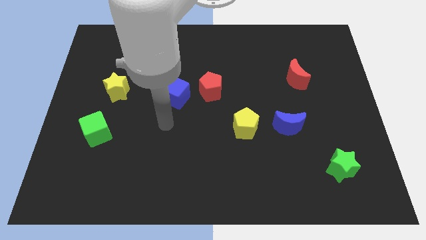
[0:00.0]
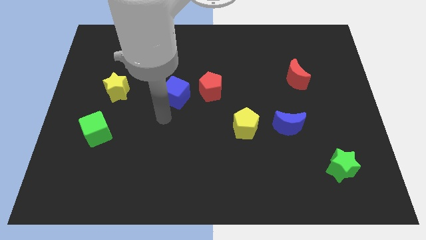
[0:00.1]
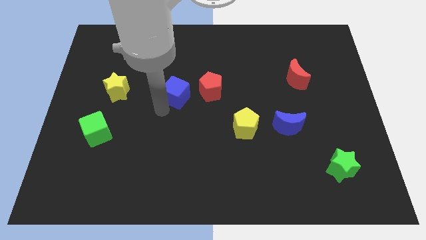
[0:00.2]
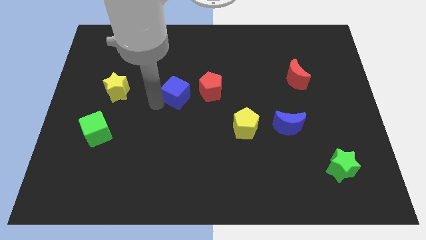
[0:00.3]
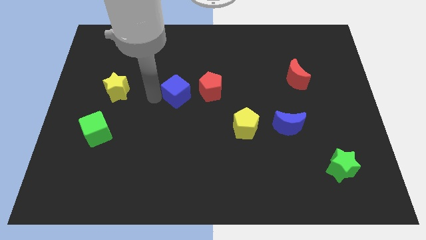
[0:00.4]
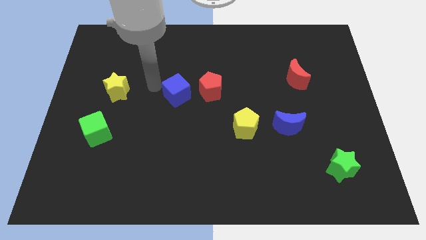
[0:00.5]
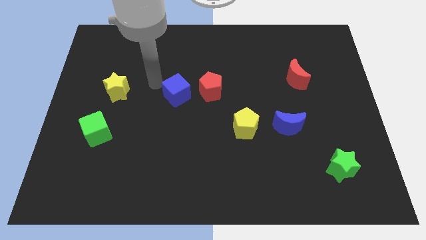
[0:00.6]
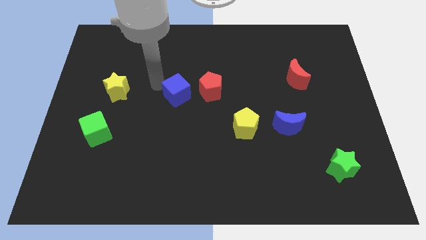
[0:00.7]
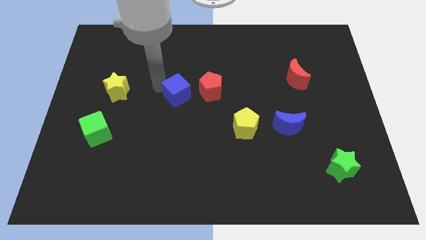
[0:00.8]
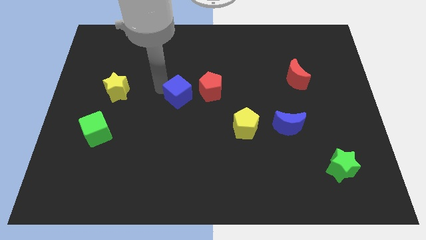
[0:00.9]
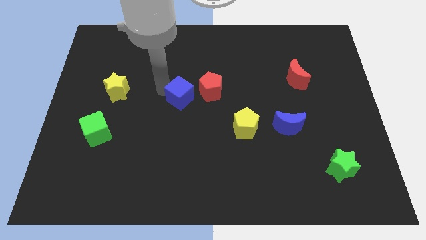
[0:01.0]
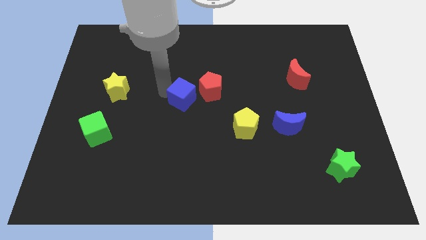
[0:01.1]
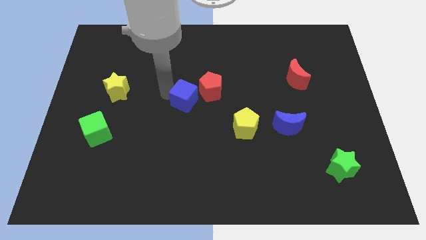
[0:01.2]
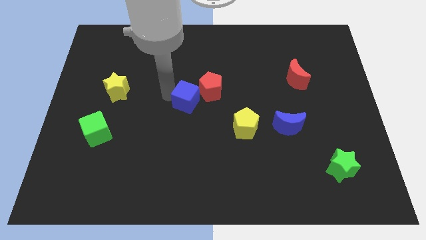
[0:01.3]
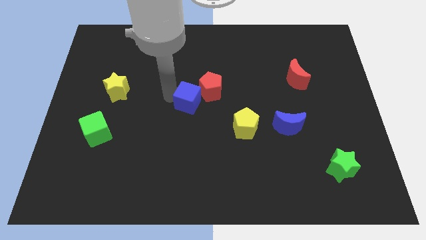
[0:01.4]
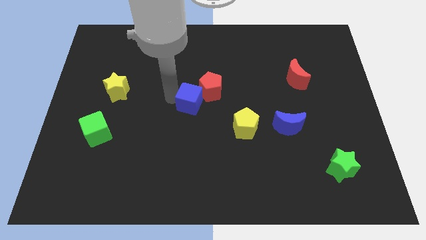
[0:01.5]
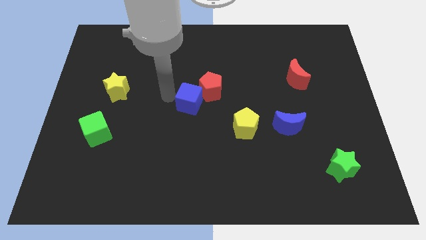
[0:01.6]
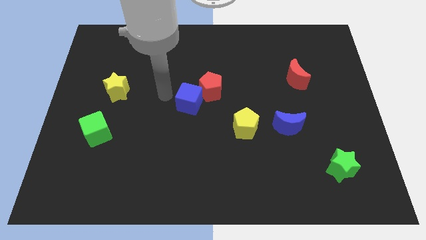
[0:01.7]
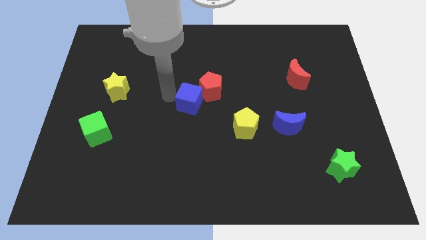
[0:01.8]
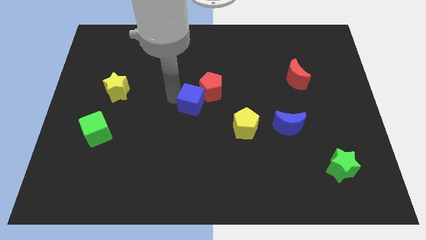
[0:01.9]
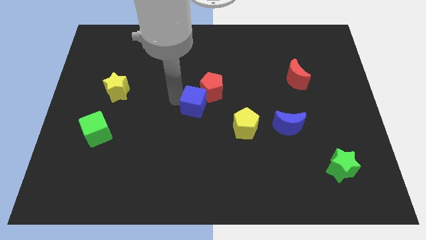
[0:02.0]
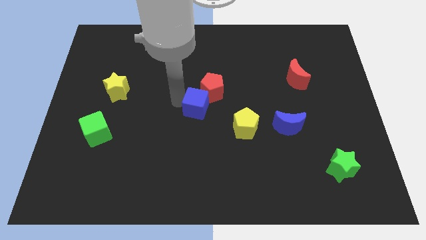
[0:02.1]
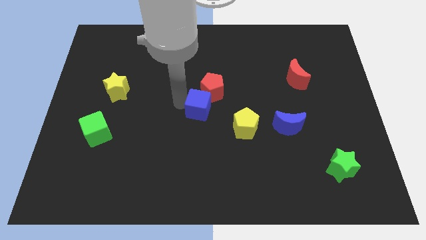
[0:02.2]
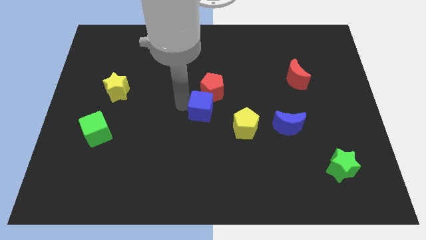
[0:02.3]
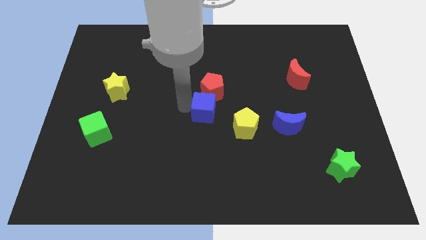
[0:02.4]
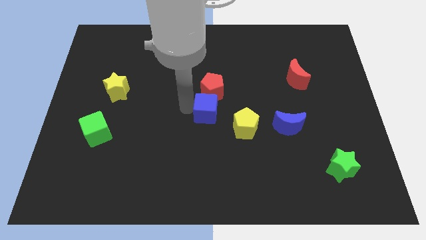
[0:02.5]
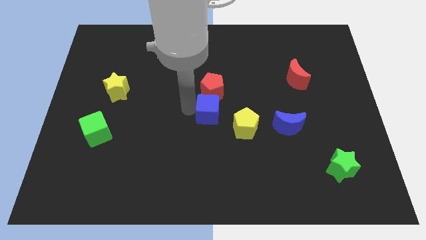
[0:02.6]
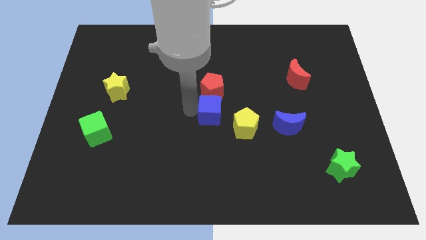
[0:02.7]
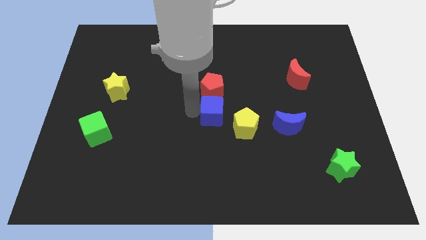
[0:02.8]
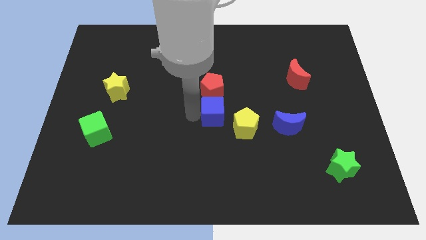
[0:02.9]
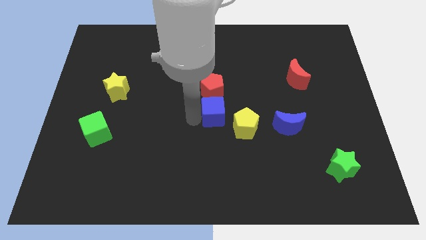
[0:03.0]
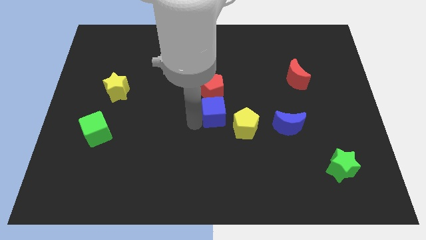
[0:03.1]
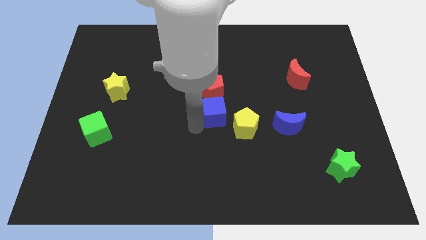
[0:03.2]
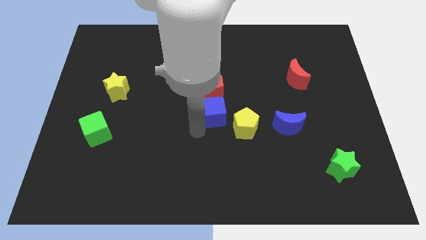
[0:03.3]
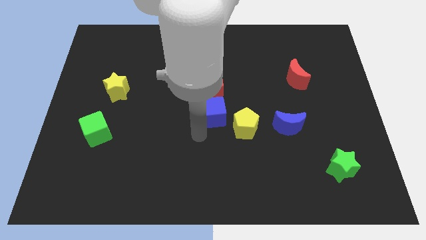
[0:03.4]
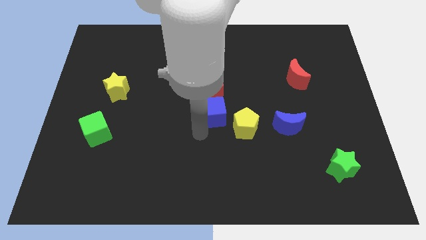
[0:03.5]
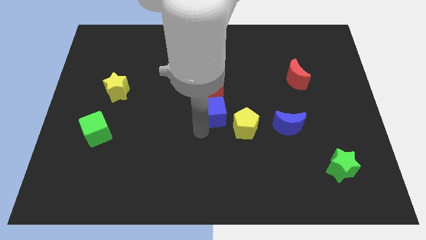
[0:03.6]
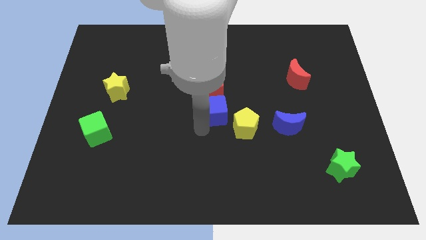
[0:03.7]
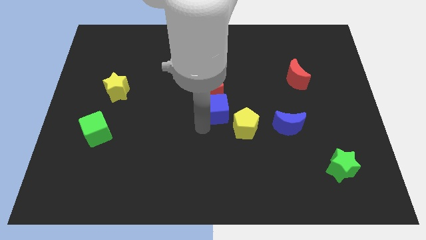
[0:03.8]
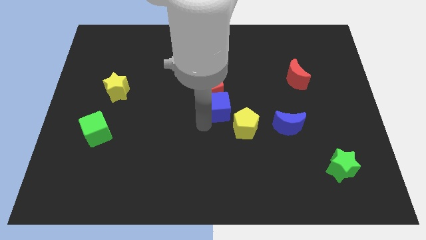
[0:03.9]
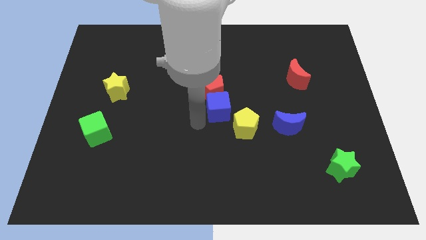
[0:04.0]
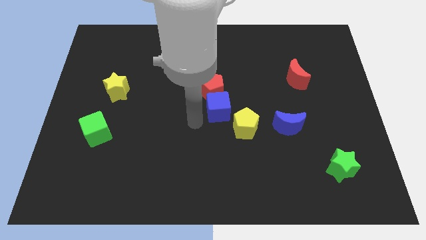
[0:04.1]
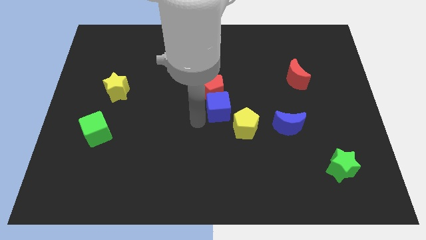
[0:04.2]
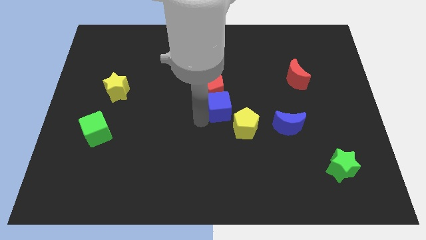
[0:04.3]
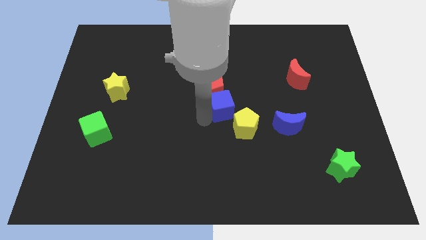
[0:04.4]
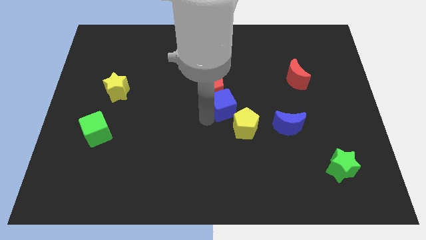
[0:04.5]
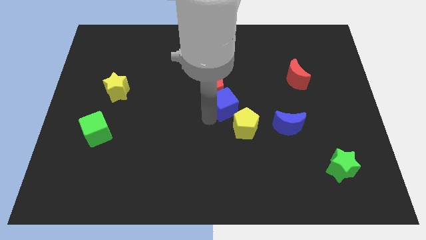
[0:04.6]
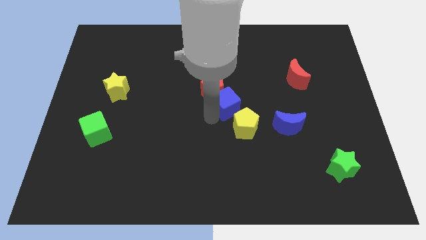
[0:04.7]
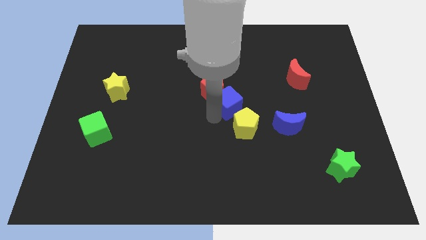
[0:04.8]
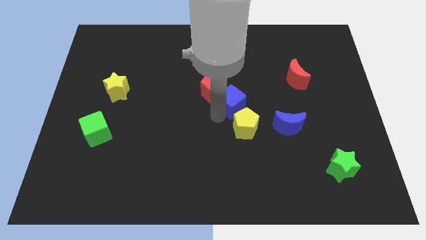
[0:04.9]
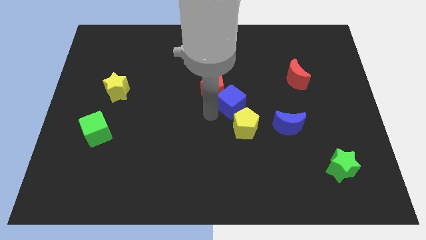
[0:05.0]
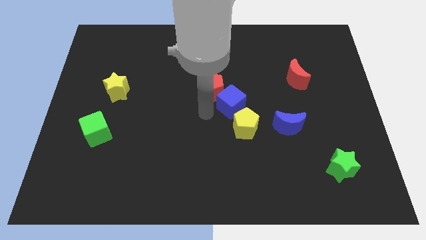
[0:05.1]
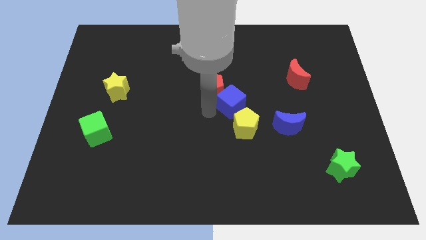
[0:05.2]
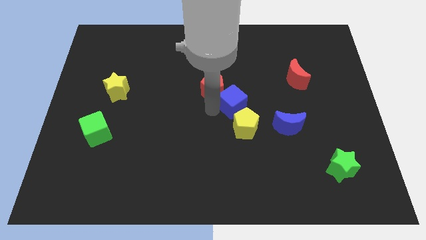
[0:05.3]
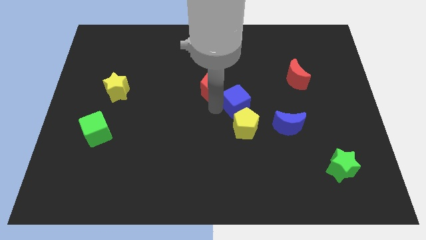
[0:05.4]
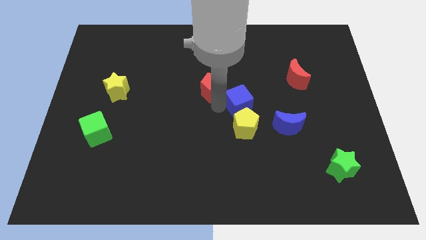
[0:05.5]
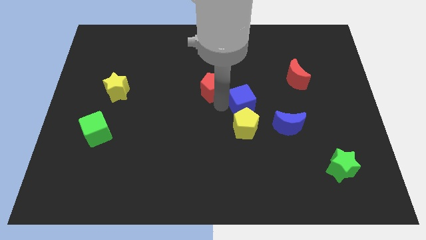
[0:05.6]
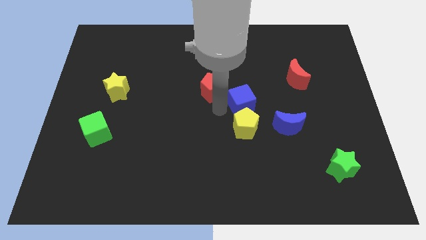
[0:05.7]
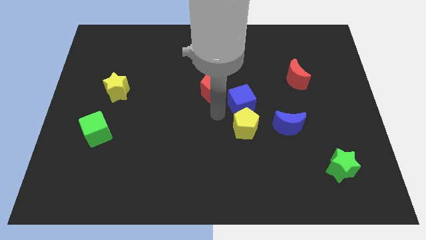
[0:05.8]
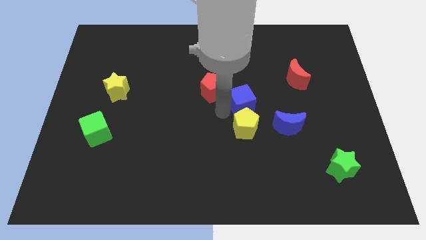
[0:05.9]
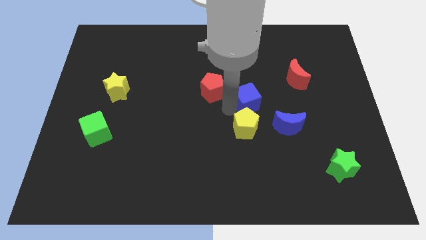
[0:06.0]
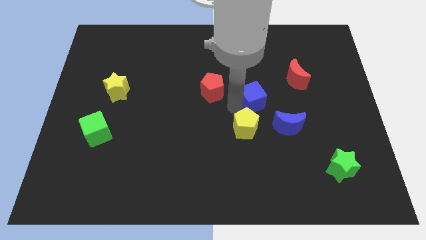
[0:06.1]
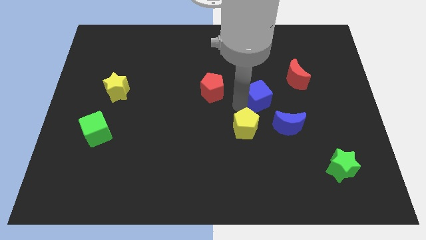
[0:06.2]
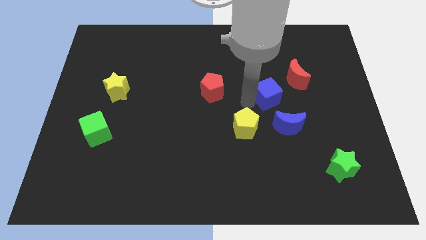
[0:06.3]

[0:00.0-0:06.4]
push the blue cube to the right

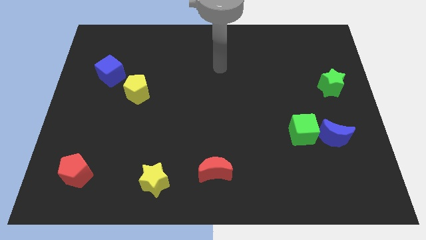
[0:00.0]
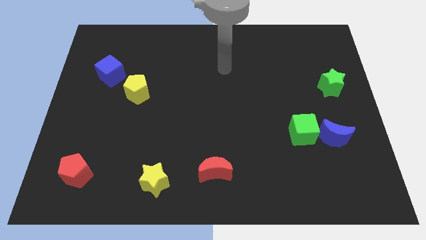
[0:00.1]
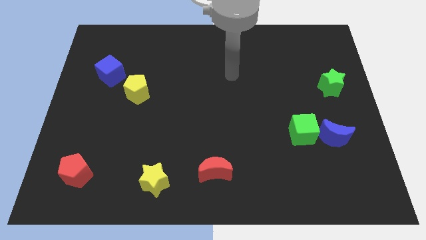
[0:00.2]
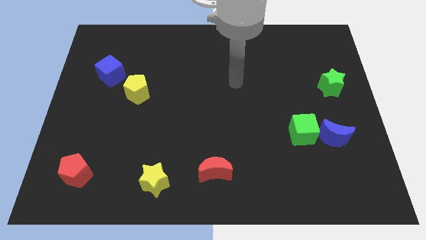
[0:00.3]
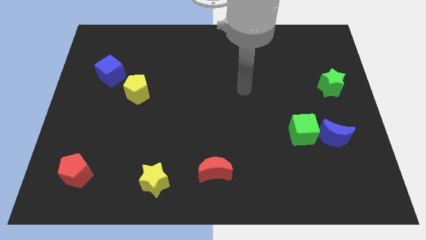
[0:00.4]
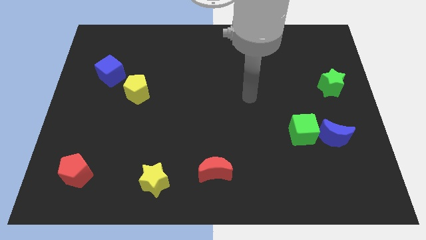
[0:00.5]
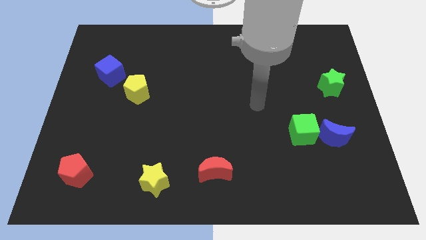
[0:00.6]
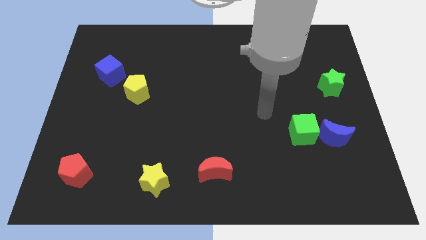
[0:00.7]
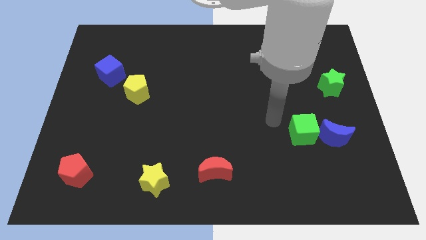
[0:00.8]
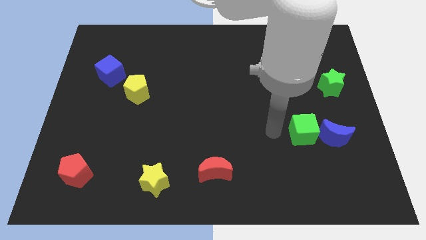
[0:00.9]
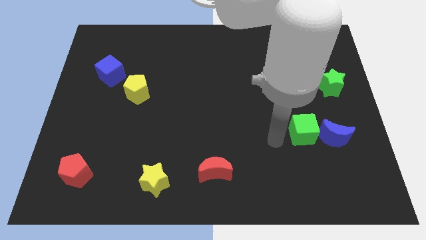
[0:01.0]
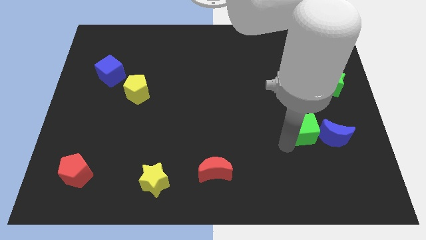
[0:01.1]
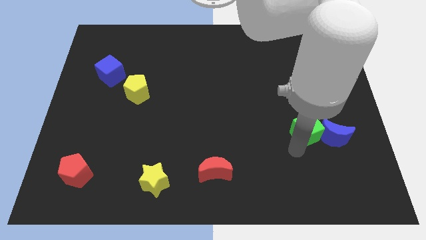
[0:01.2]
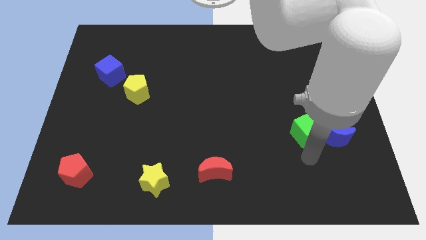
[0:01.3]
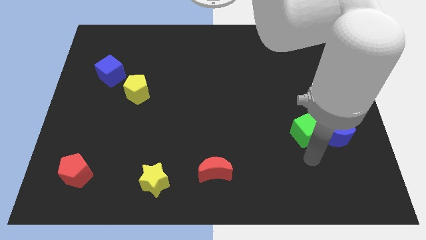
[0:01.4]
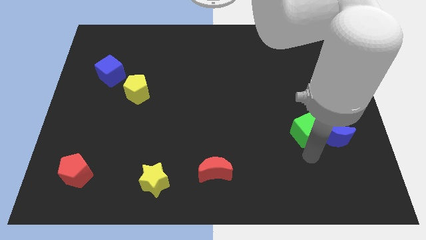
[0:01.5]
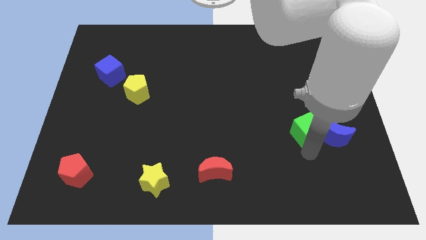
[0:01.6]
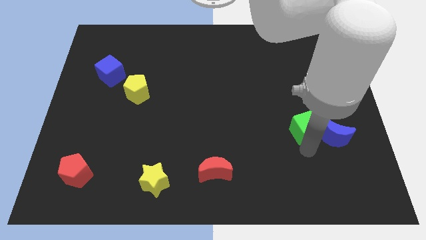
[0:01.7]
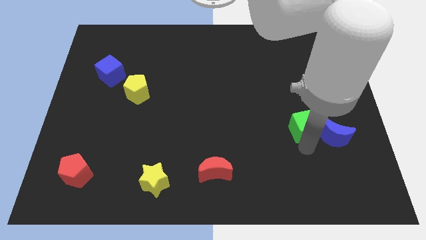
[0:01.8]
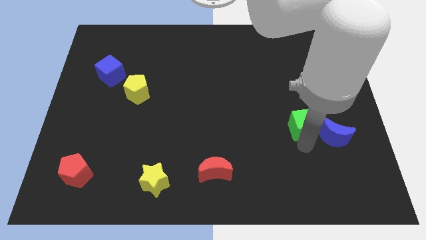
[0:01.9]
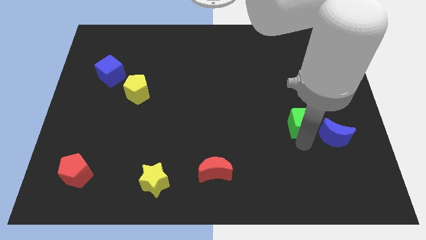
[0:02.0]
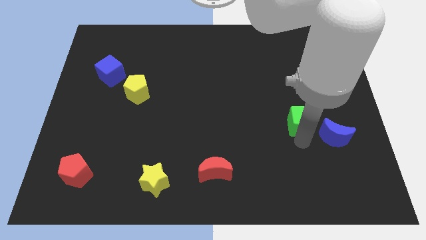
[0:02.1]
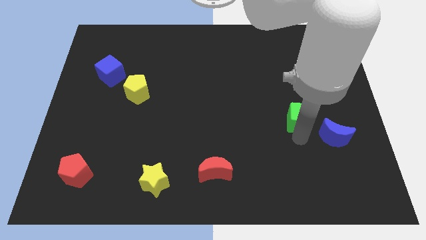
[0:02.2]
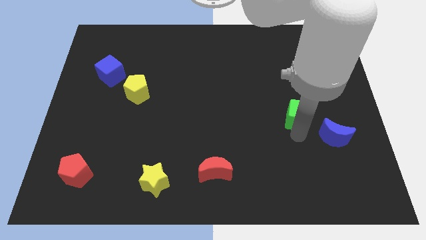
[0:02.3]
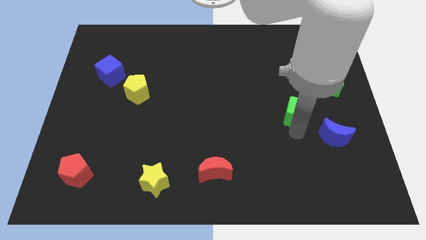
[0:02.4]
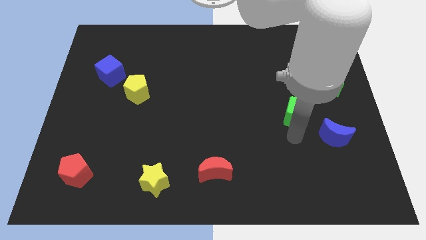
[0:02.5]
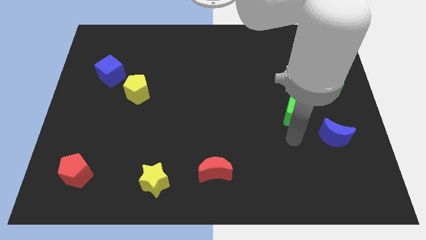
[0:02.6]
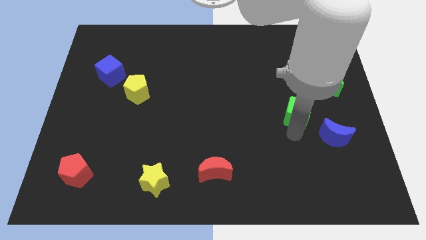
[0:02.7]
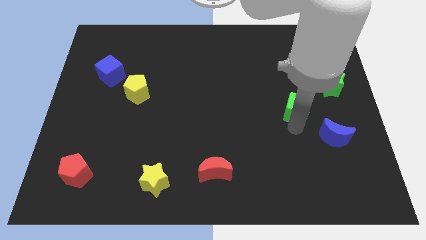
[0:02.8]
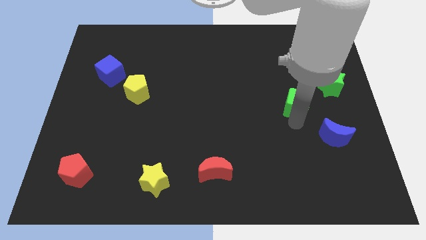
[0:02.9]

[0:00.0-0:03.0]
slightly slide the green cube up
